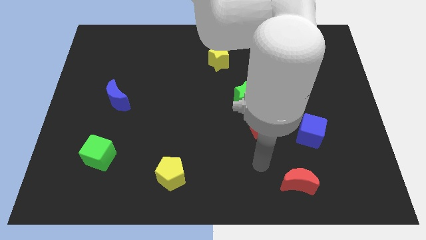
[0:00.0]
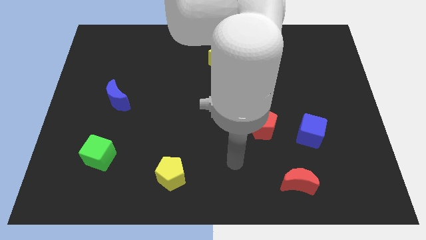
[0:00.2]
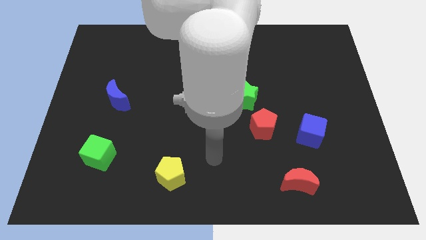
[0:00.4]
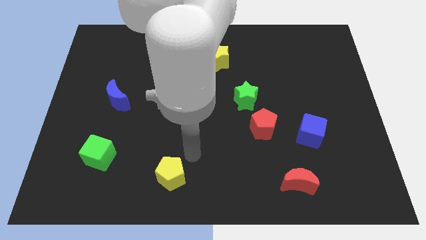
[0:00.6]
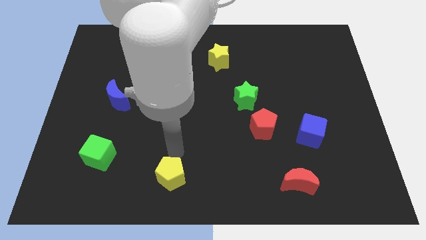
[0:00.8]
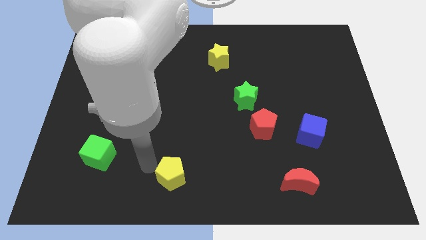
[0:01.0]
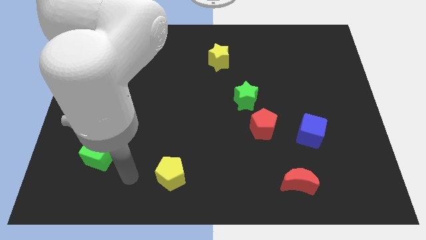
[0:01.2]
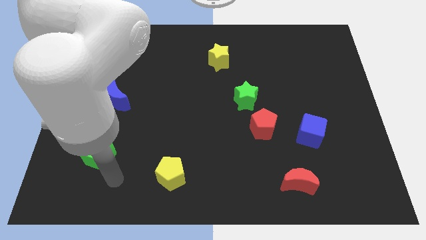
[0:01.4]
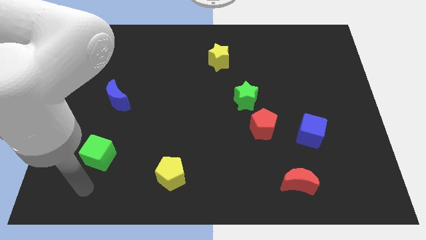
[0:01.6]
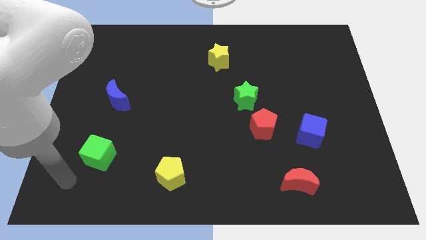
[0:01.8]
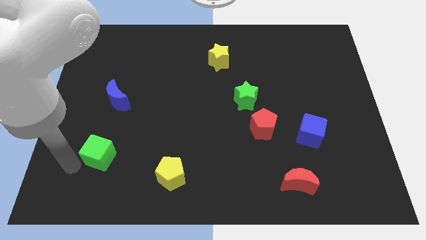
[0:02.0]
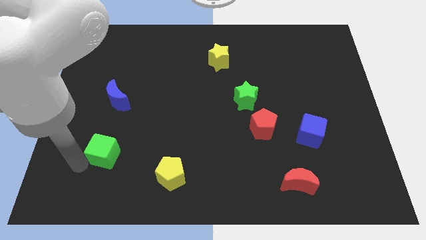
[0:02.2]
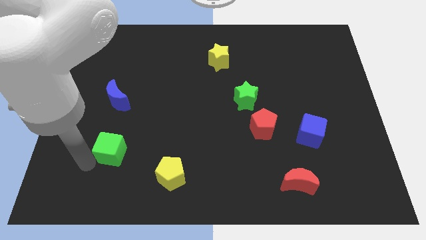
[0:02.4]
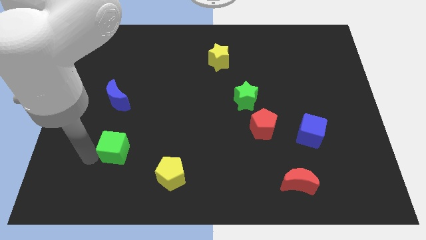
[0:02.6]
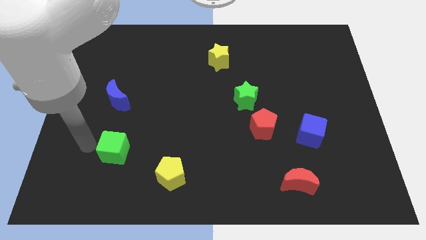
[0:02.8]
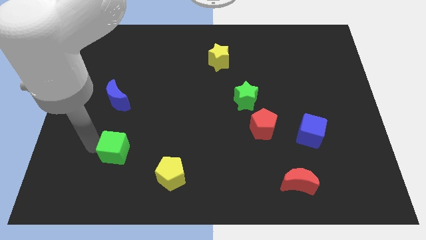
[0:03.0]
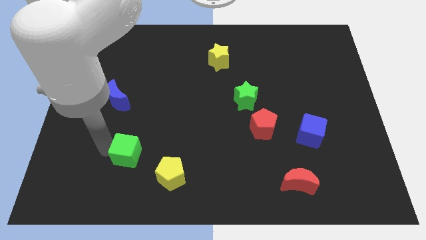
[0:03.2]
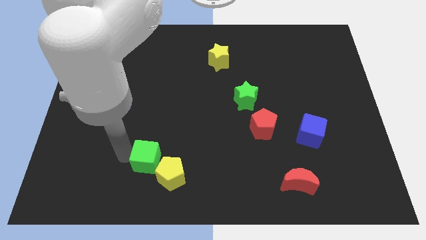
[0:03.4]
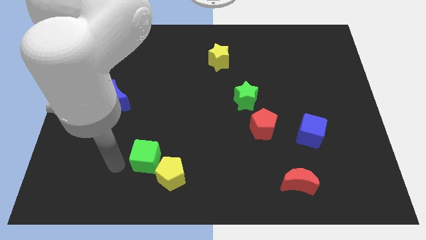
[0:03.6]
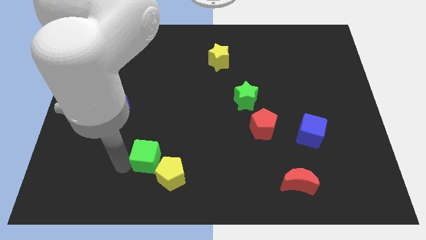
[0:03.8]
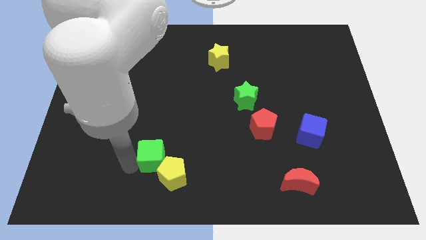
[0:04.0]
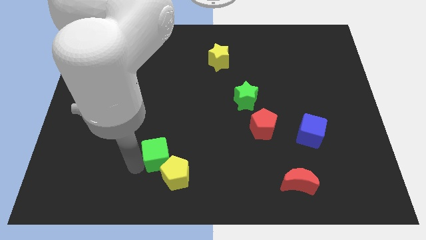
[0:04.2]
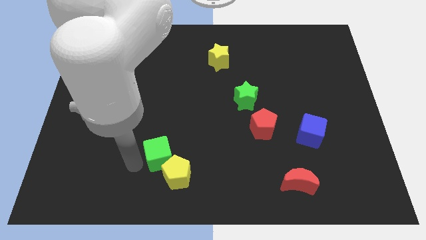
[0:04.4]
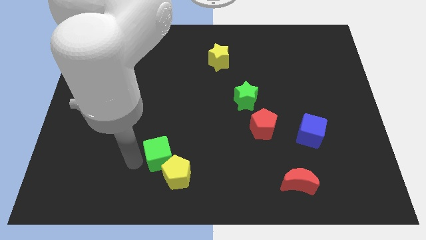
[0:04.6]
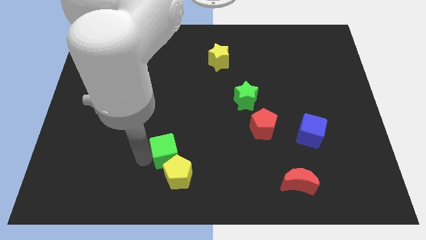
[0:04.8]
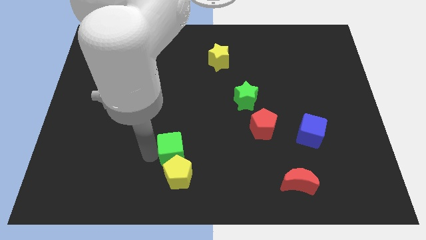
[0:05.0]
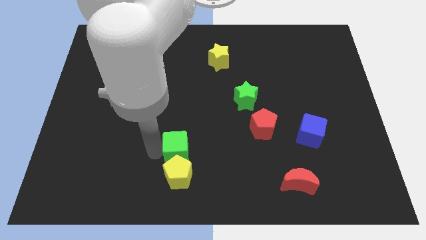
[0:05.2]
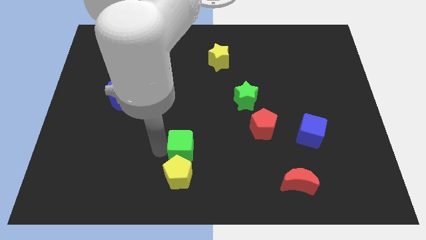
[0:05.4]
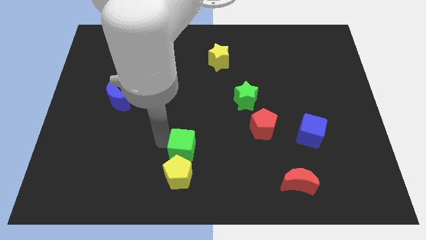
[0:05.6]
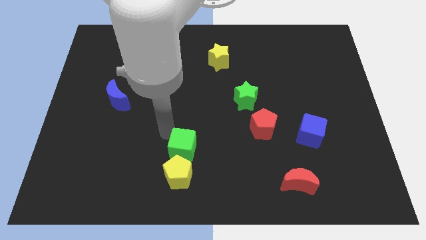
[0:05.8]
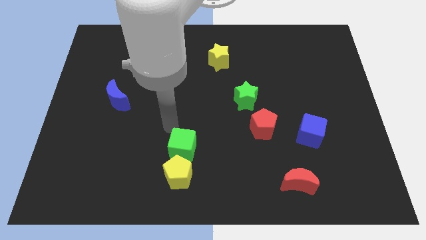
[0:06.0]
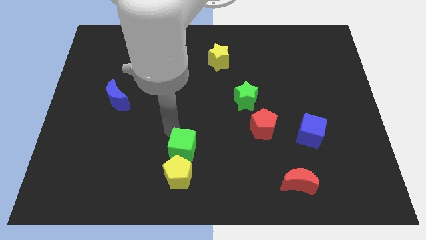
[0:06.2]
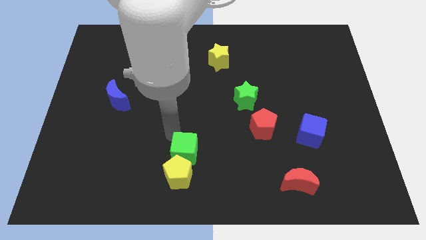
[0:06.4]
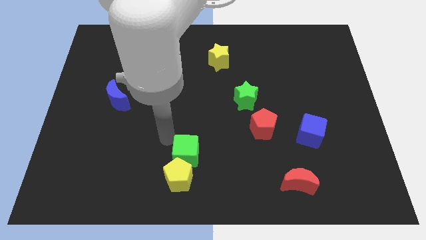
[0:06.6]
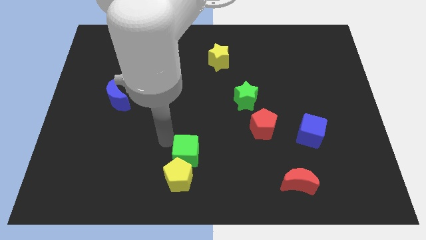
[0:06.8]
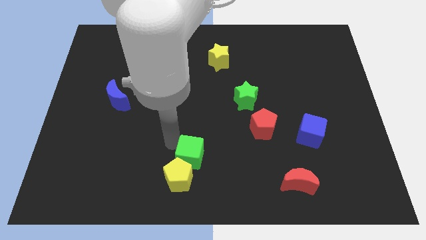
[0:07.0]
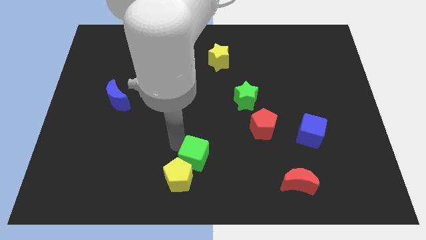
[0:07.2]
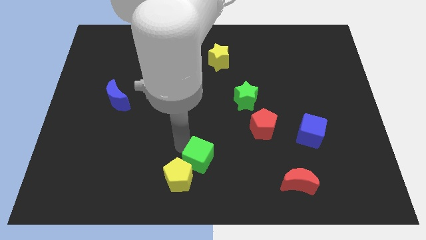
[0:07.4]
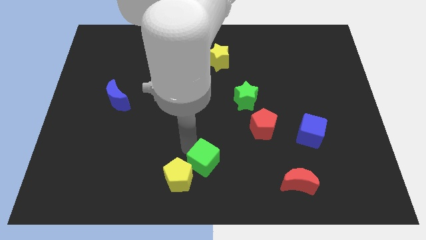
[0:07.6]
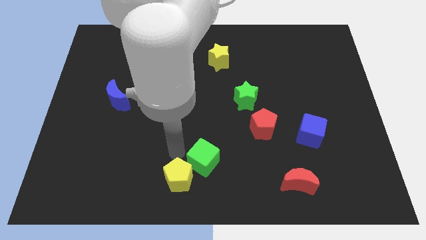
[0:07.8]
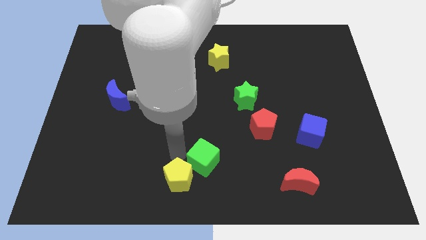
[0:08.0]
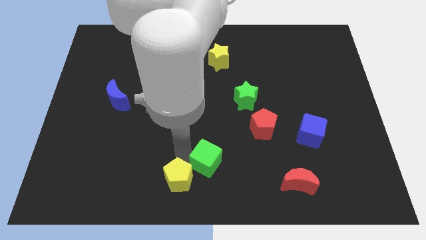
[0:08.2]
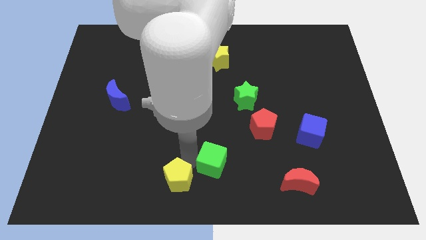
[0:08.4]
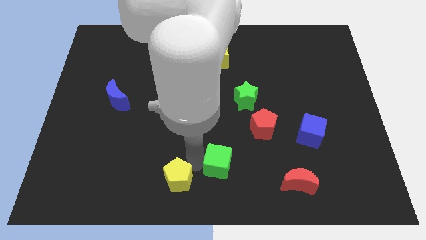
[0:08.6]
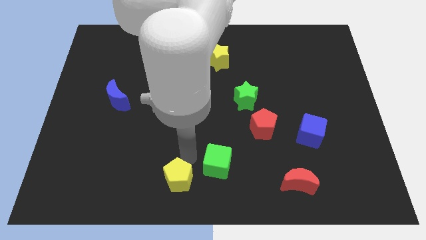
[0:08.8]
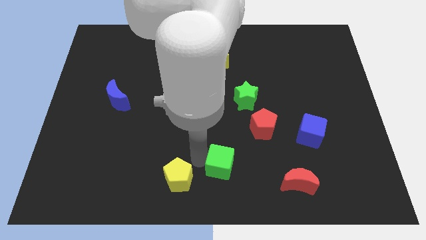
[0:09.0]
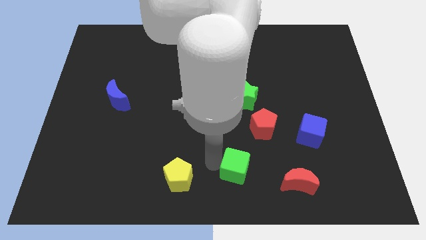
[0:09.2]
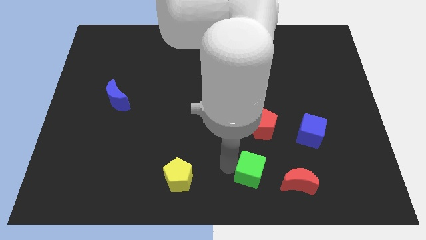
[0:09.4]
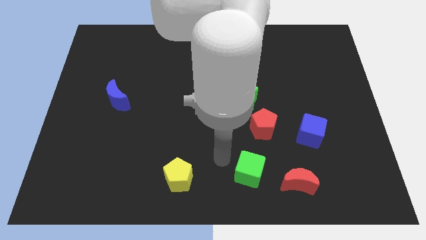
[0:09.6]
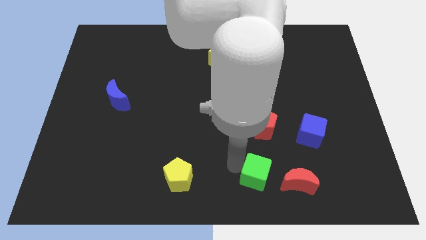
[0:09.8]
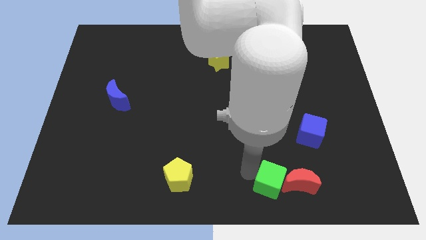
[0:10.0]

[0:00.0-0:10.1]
push the green cube towards the red moon

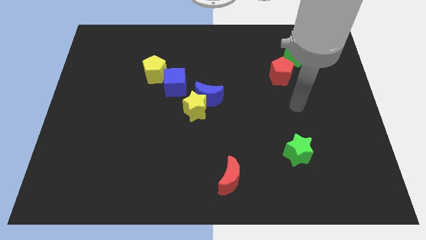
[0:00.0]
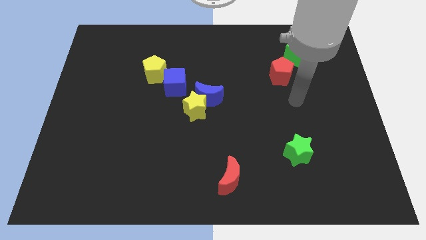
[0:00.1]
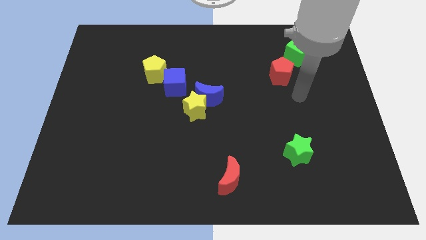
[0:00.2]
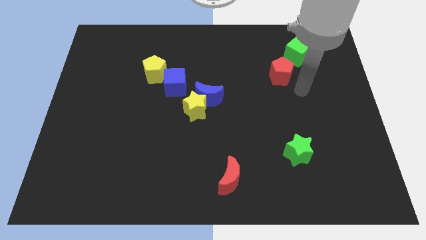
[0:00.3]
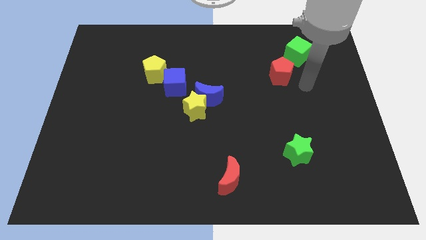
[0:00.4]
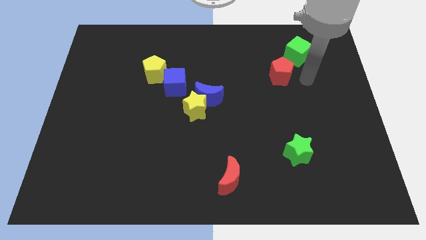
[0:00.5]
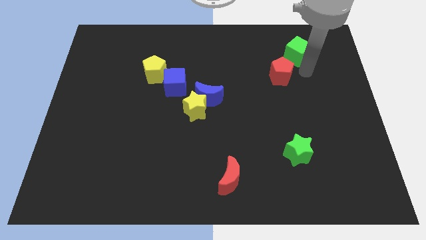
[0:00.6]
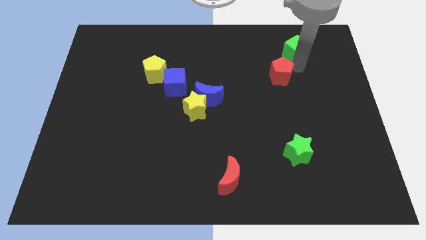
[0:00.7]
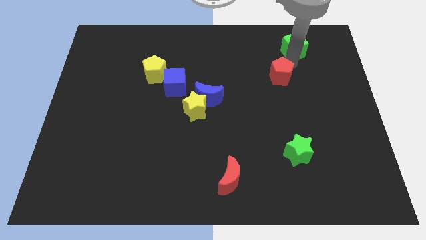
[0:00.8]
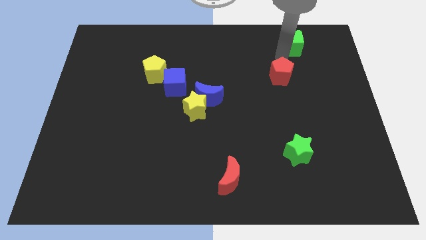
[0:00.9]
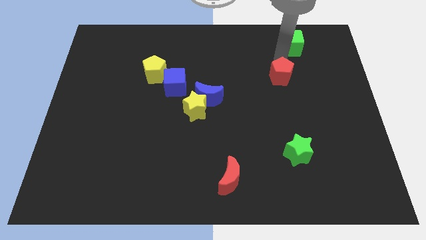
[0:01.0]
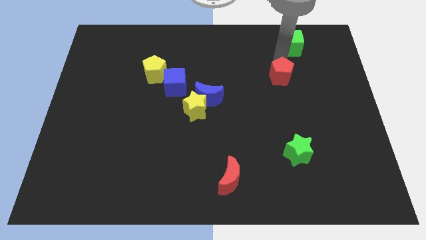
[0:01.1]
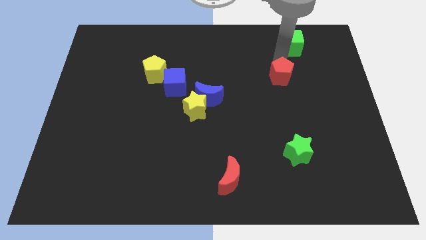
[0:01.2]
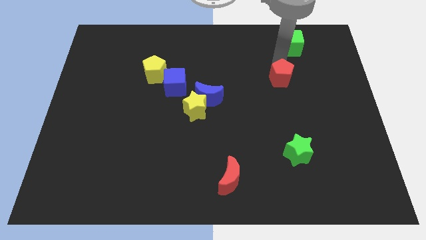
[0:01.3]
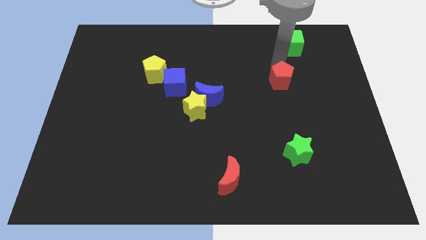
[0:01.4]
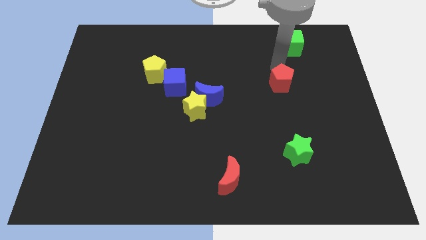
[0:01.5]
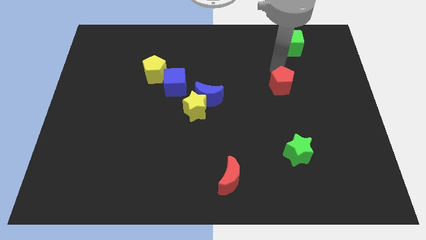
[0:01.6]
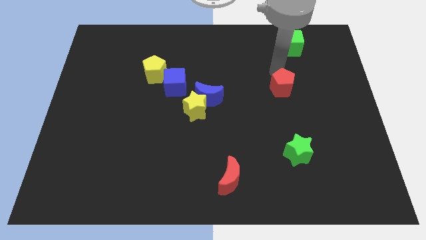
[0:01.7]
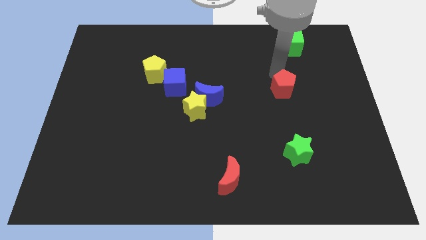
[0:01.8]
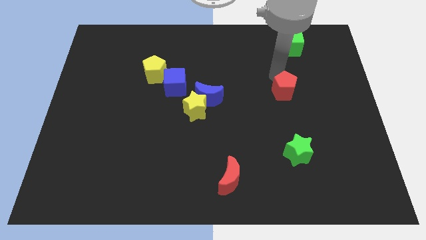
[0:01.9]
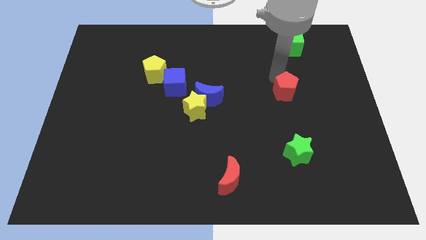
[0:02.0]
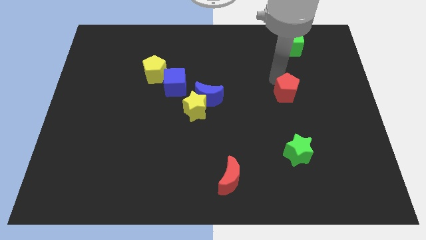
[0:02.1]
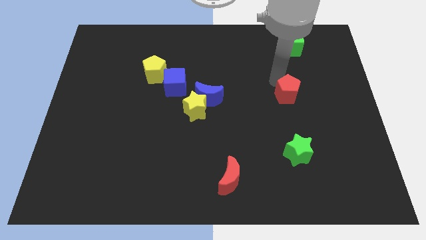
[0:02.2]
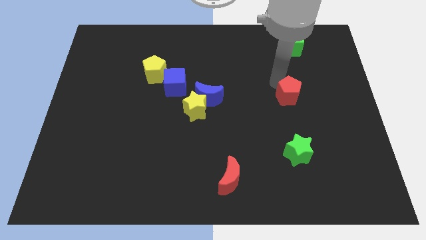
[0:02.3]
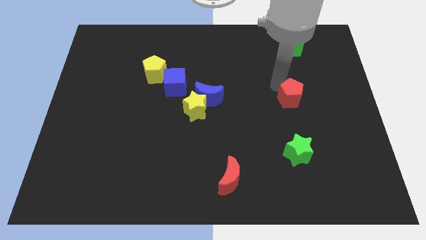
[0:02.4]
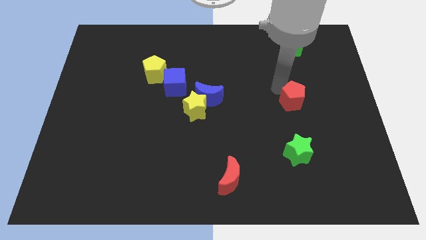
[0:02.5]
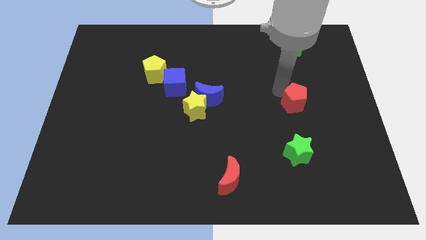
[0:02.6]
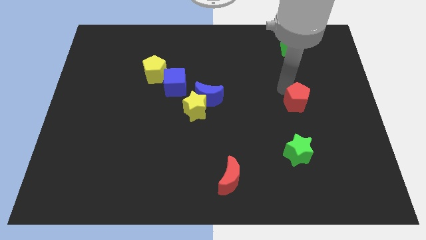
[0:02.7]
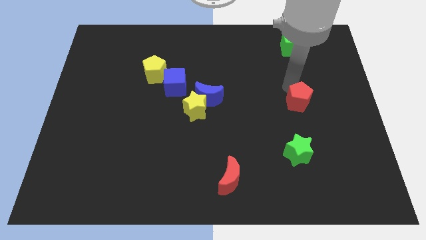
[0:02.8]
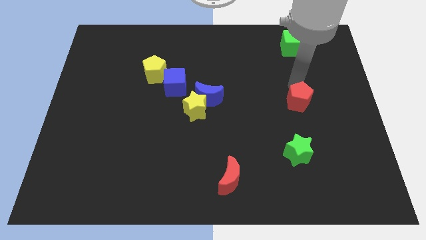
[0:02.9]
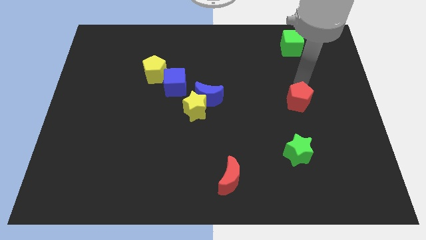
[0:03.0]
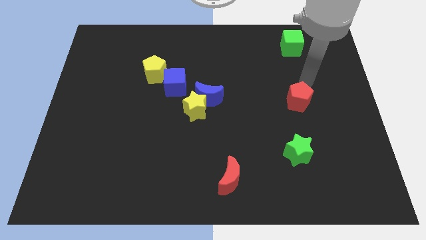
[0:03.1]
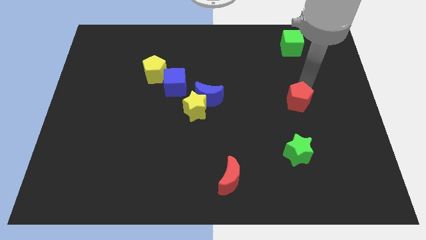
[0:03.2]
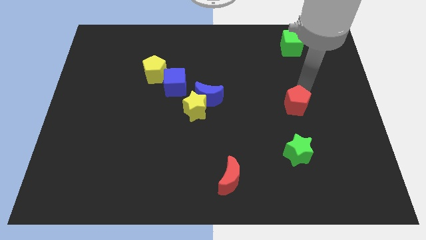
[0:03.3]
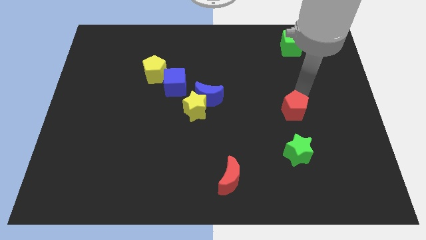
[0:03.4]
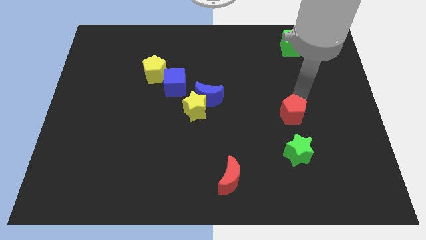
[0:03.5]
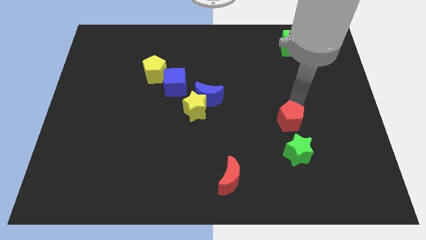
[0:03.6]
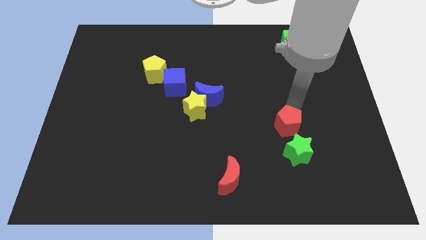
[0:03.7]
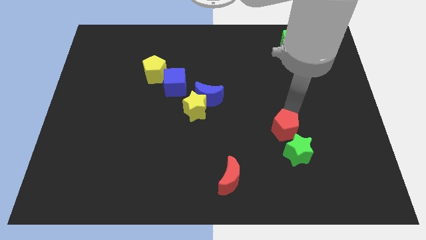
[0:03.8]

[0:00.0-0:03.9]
push the red pentagon next to the green star
